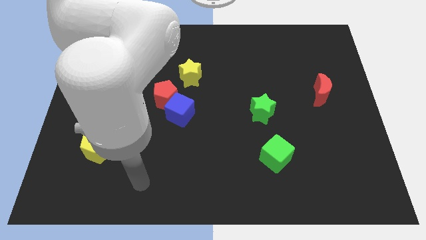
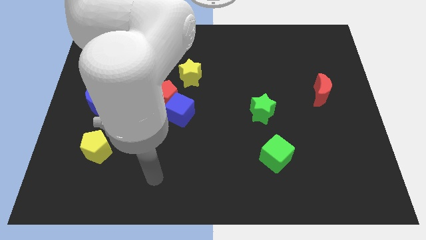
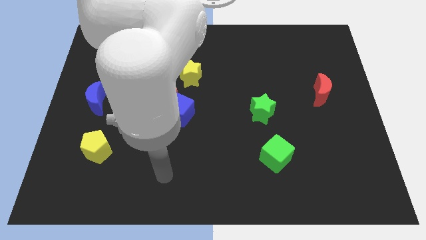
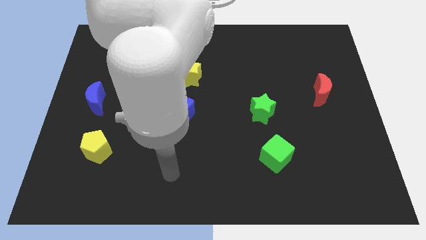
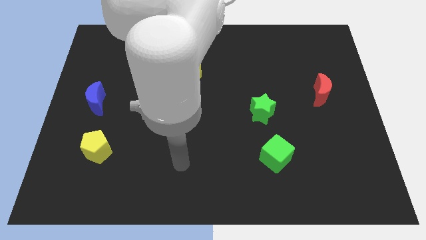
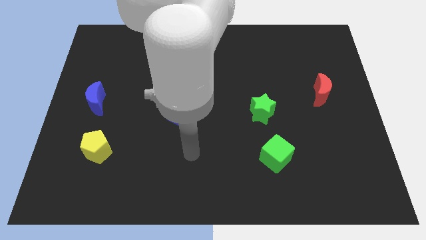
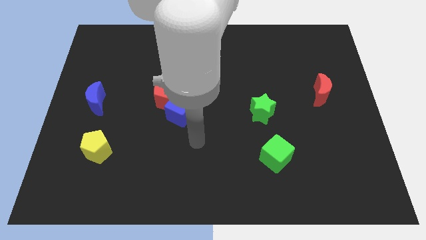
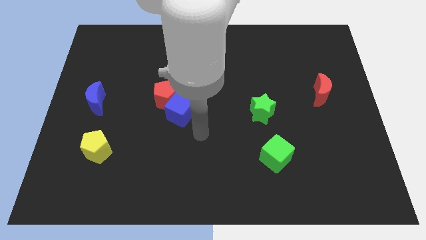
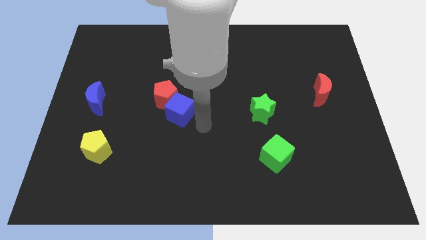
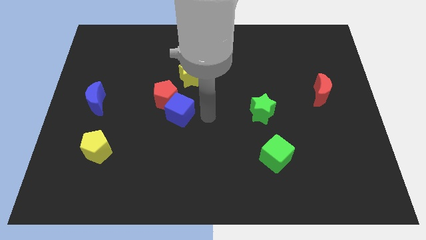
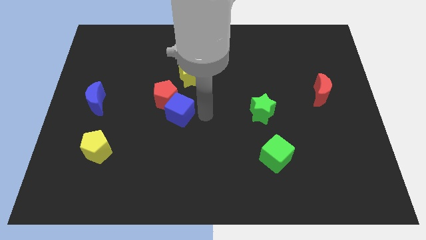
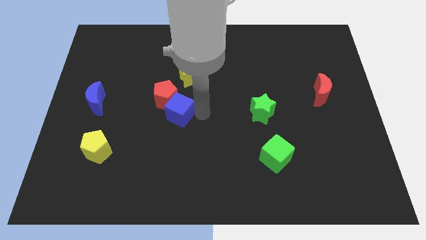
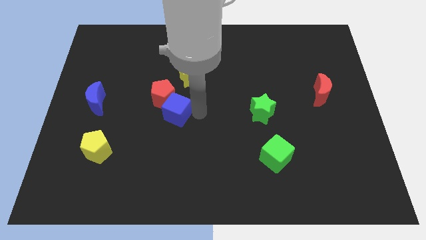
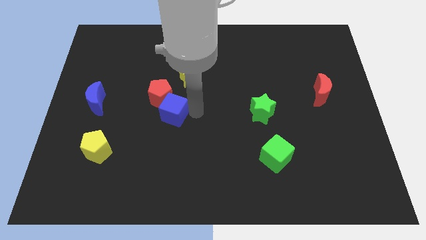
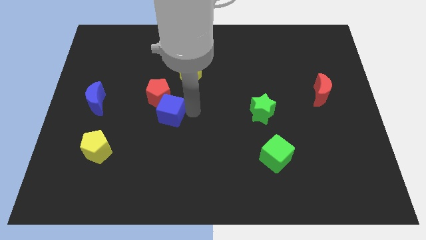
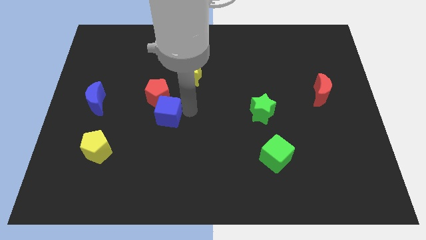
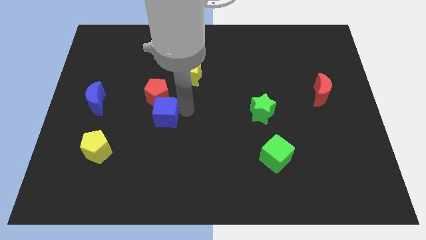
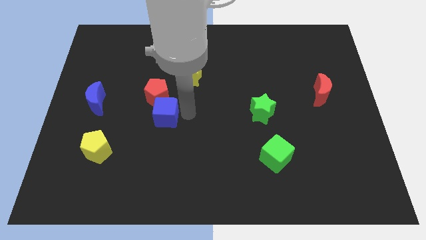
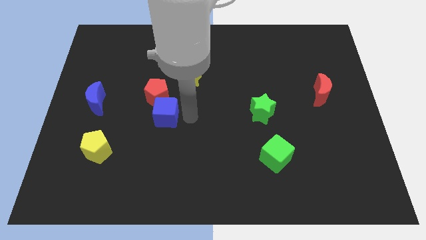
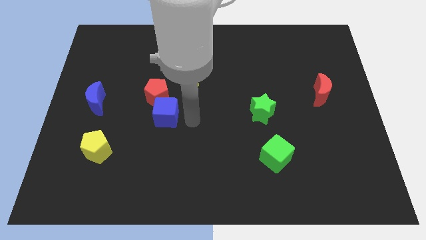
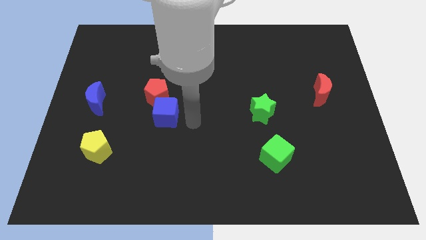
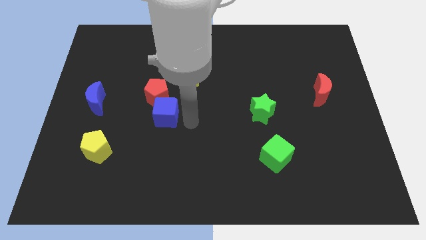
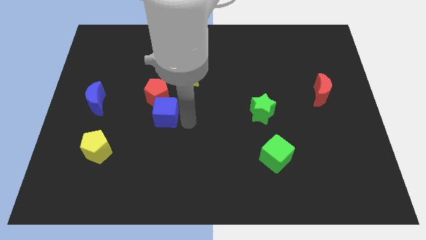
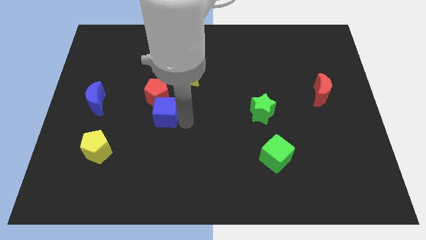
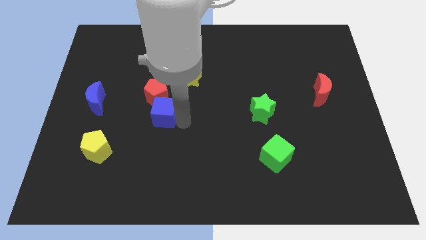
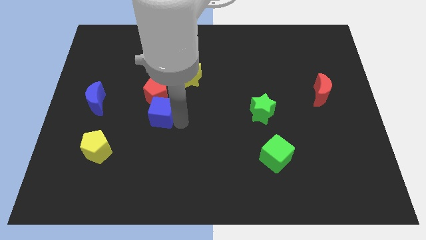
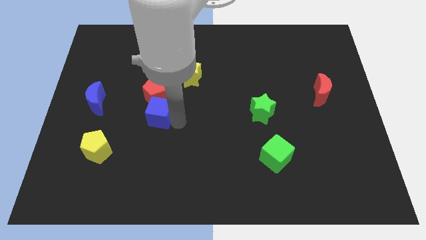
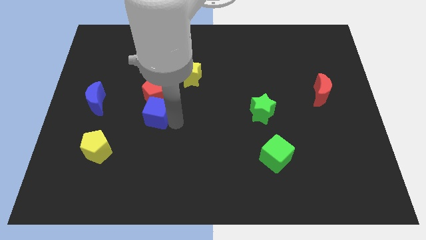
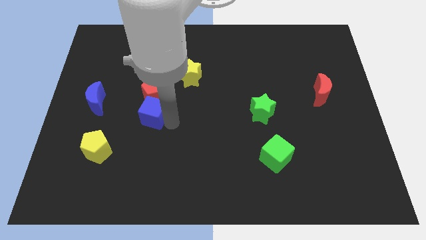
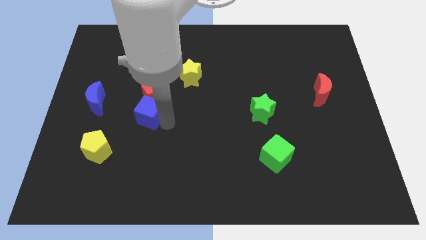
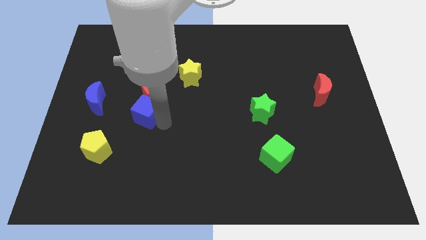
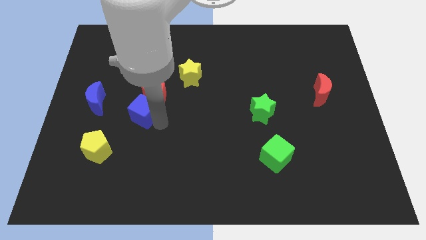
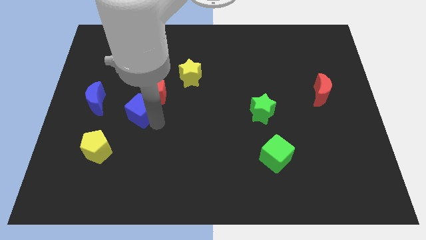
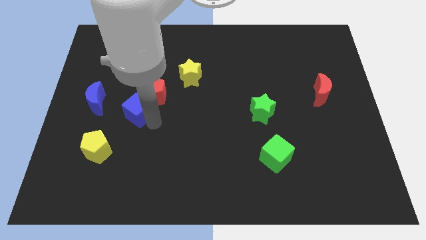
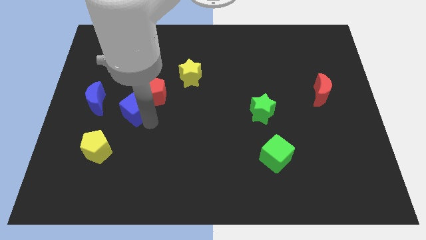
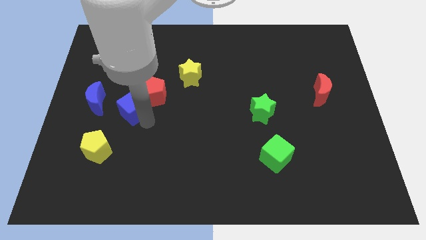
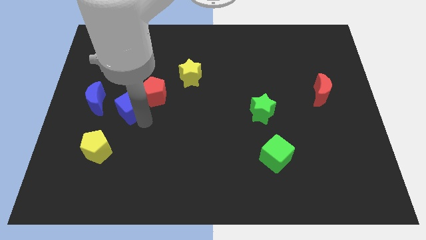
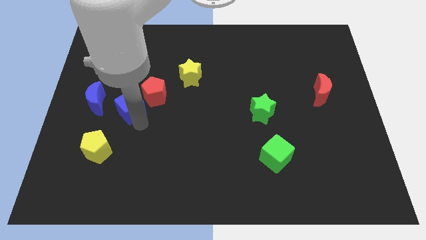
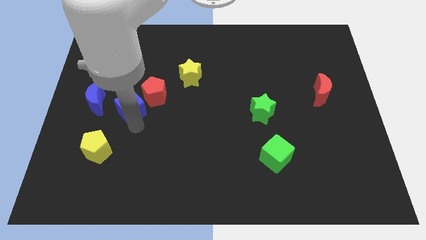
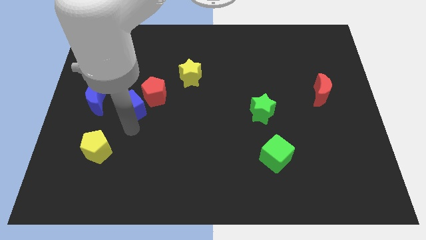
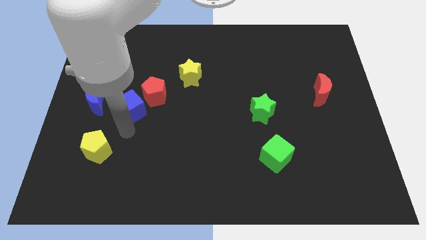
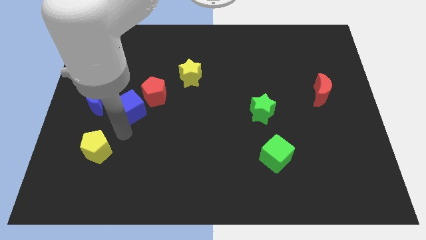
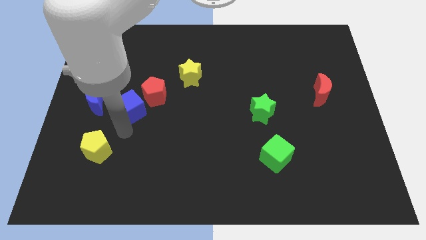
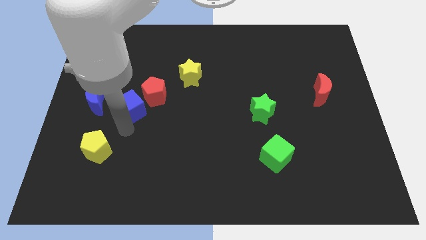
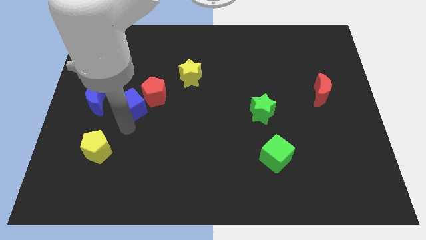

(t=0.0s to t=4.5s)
push the blue cube up and to the left diagonally slightly

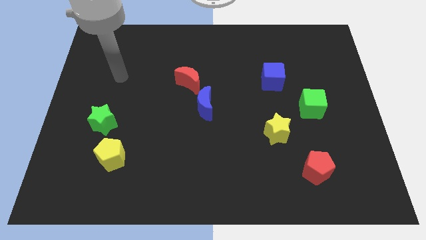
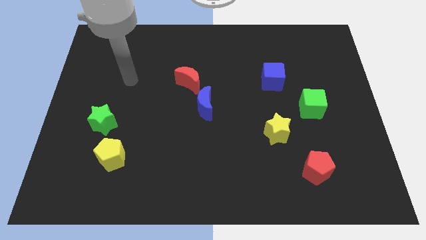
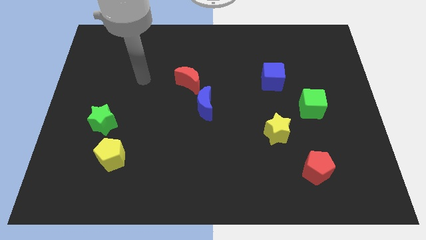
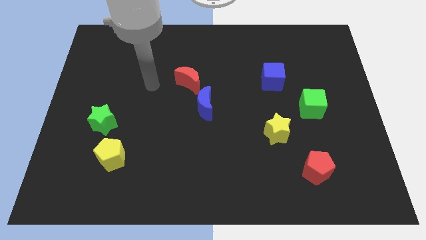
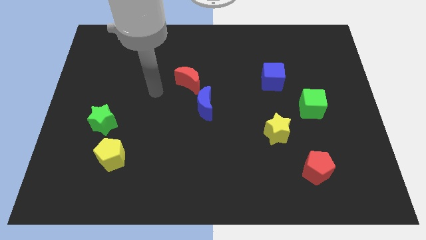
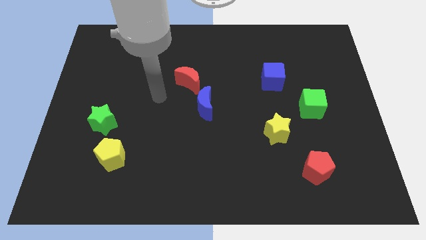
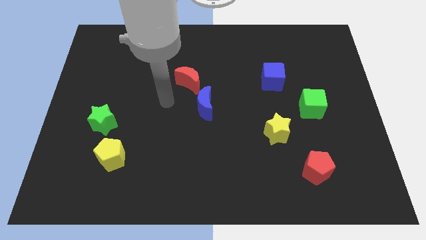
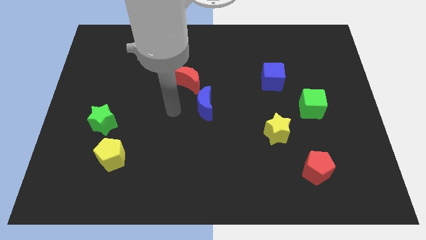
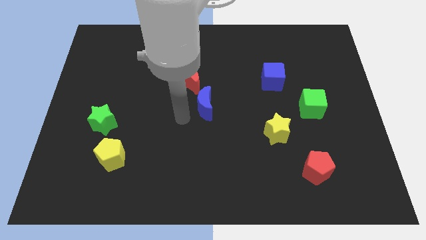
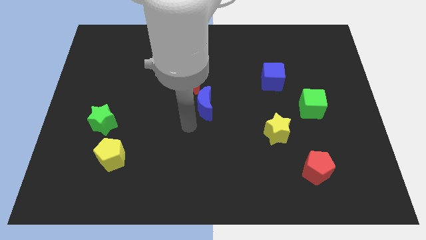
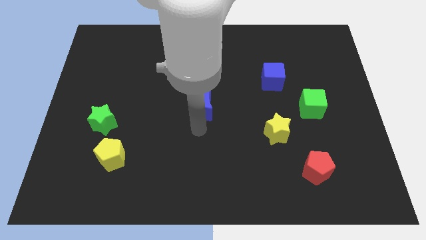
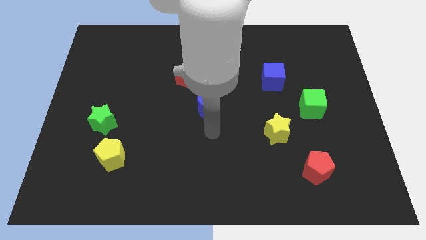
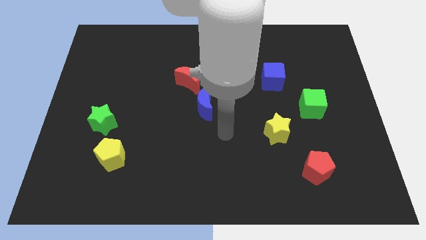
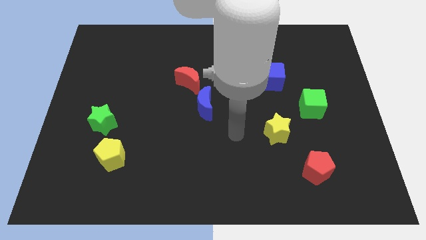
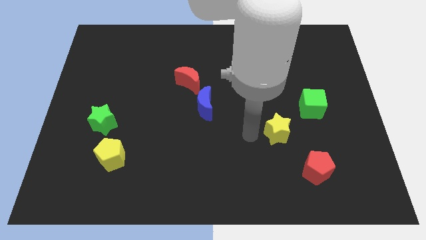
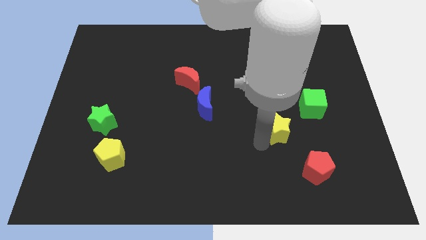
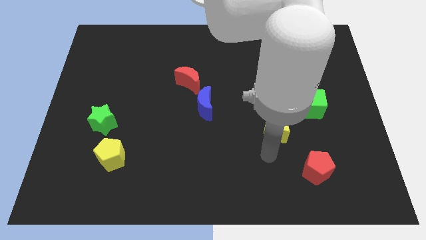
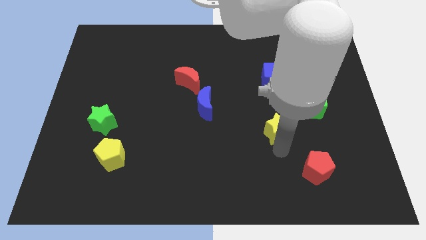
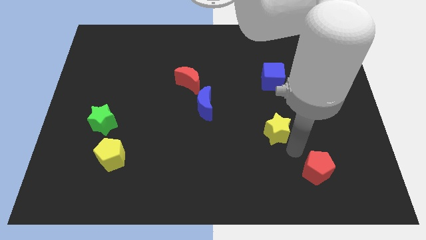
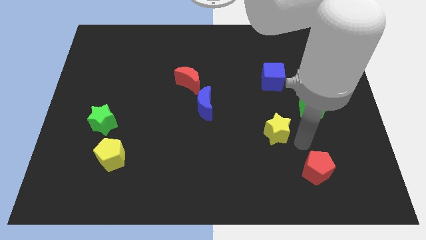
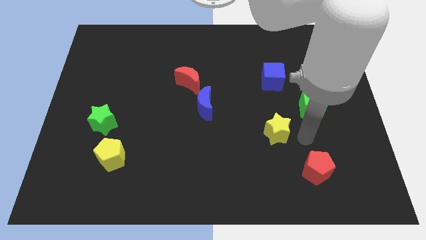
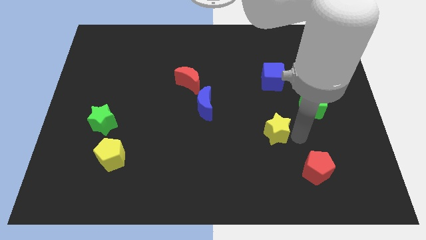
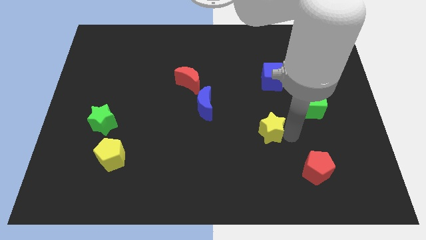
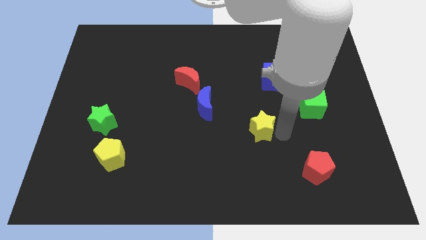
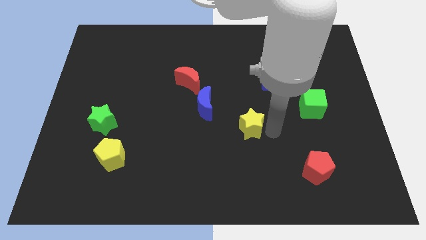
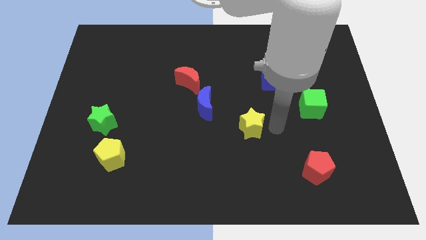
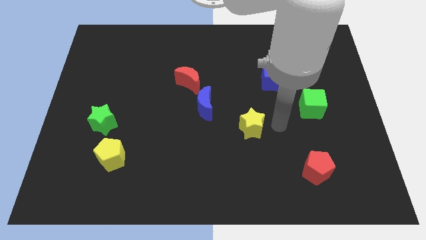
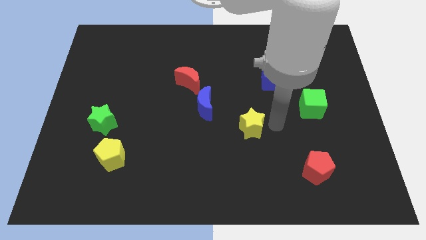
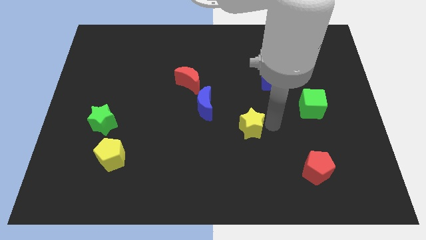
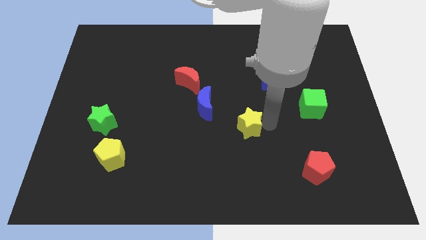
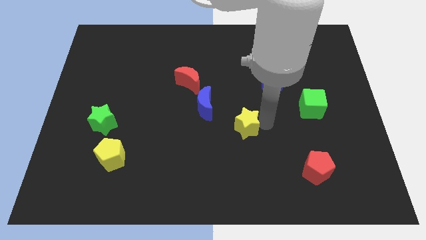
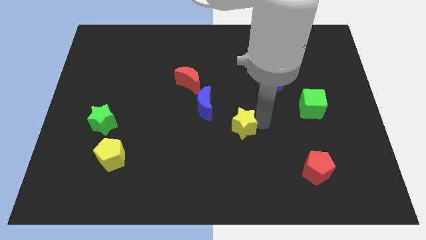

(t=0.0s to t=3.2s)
slightly move the yellow star to the left

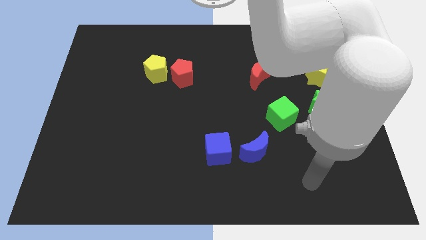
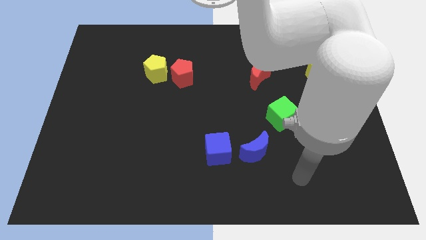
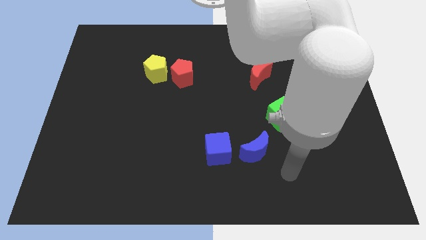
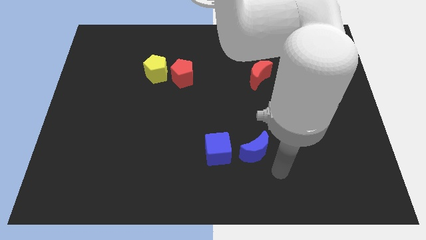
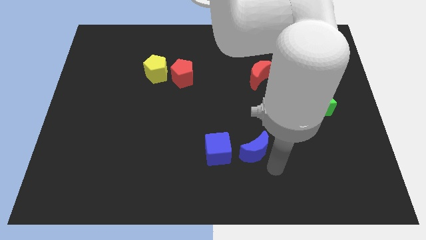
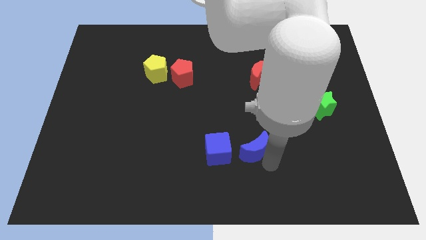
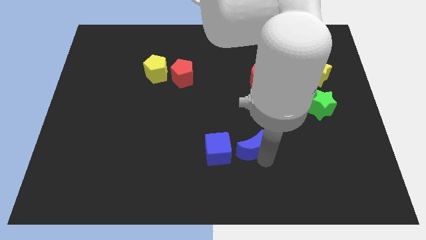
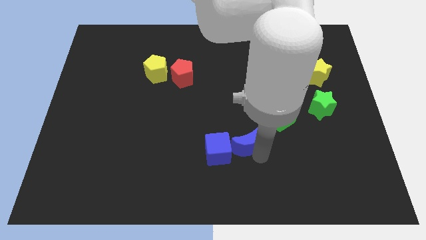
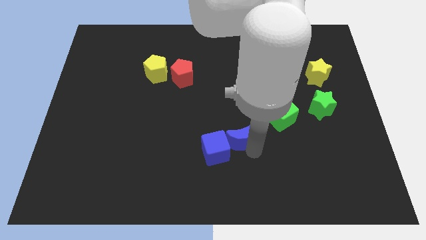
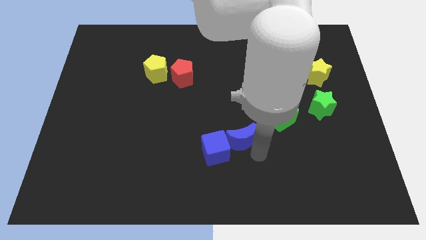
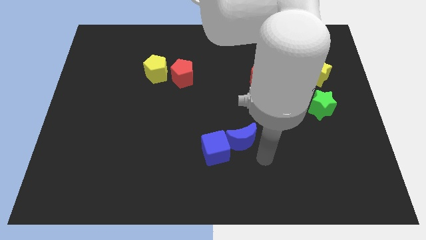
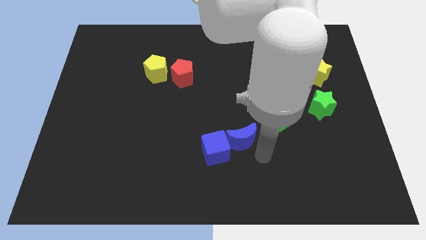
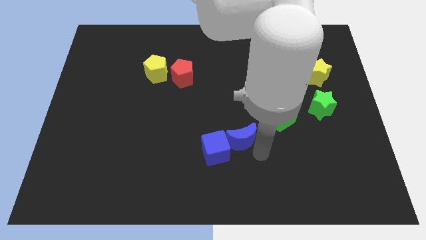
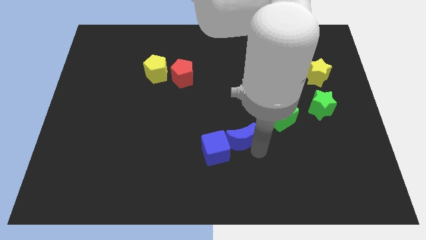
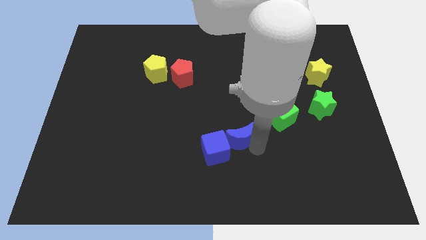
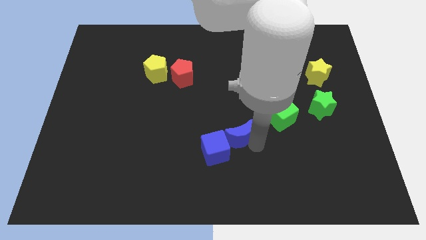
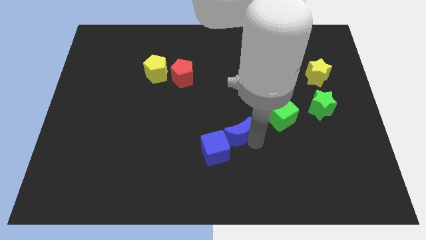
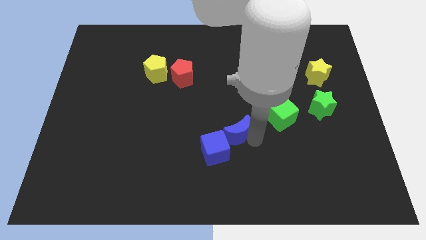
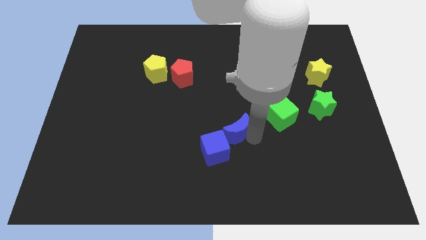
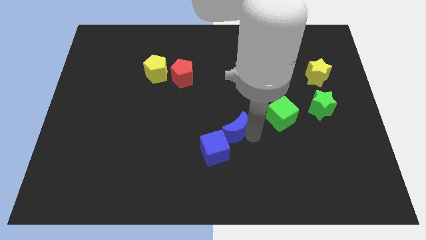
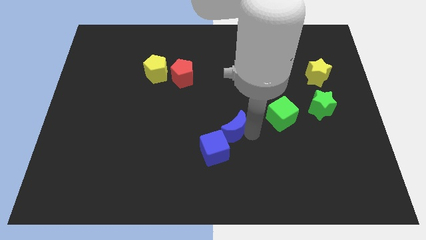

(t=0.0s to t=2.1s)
slightly push the blue moon up and to the left diagonally
